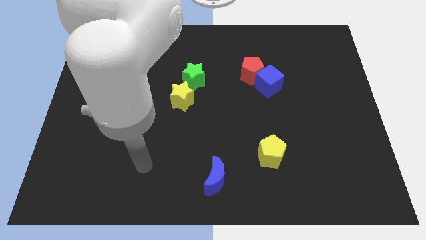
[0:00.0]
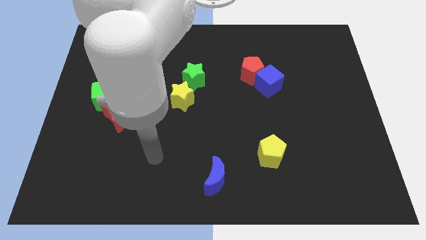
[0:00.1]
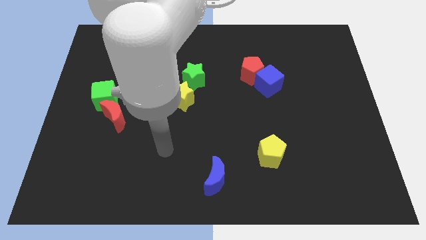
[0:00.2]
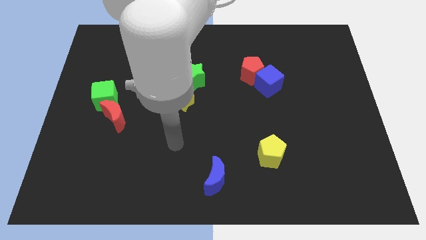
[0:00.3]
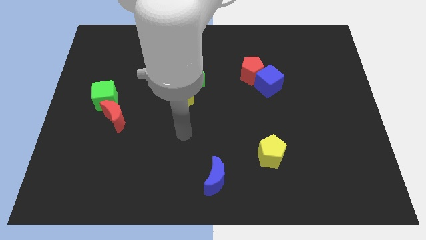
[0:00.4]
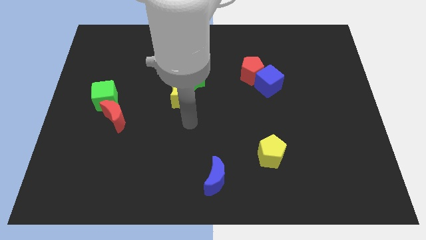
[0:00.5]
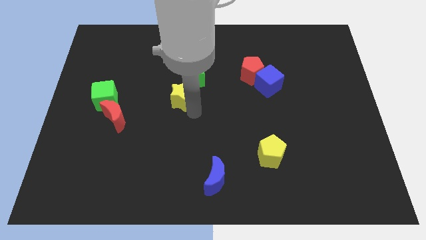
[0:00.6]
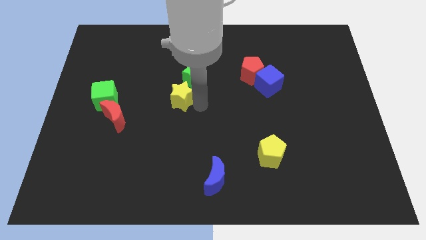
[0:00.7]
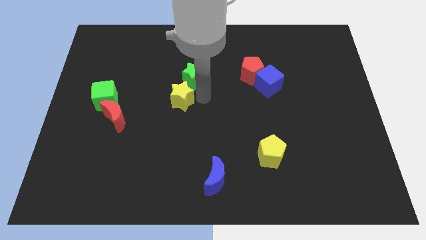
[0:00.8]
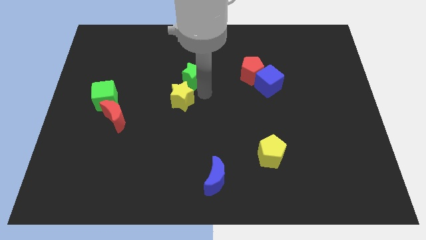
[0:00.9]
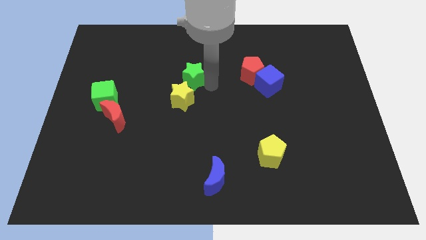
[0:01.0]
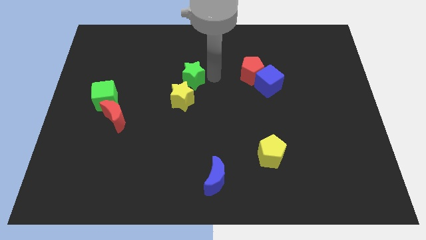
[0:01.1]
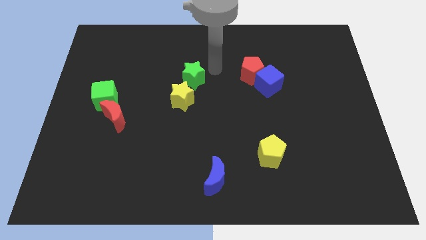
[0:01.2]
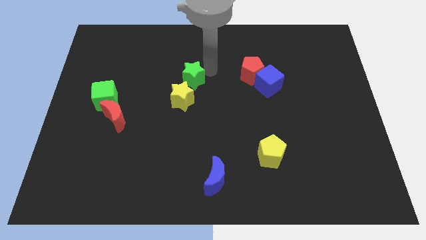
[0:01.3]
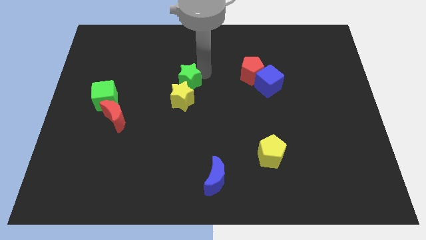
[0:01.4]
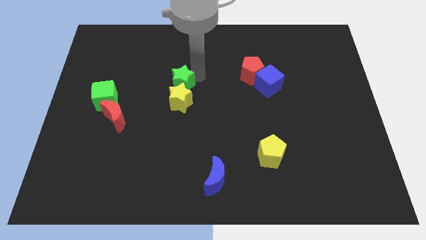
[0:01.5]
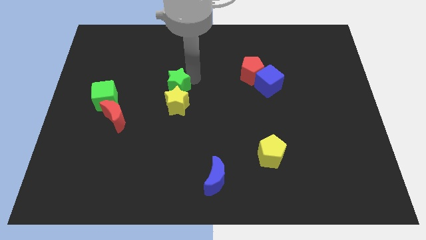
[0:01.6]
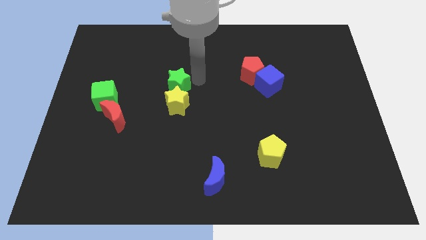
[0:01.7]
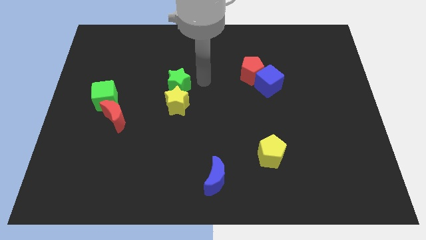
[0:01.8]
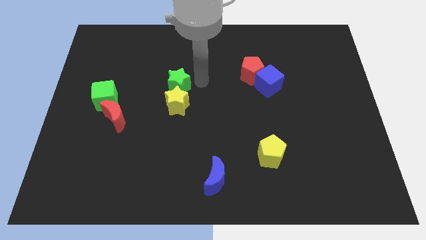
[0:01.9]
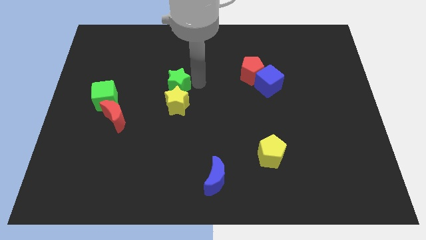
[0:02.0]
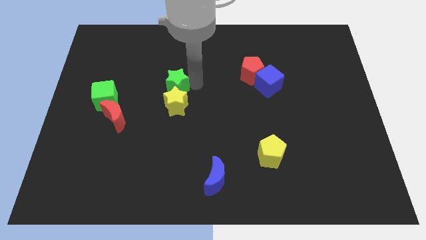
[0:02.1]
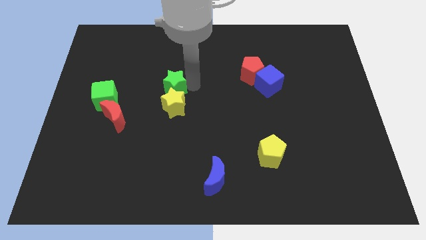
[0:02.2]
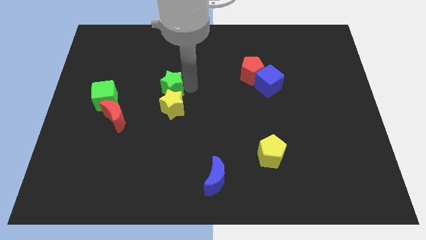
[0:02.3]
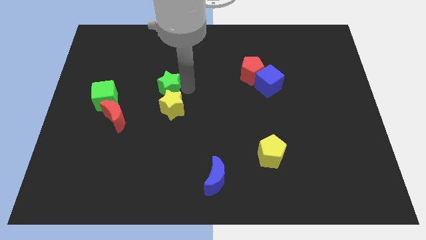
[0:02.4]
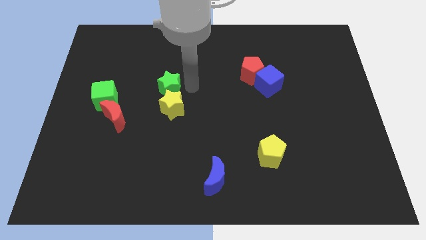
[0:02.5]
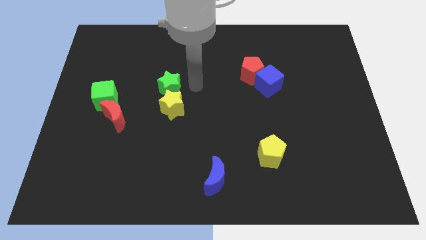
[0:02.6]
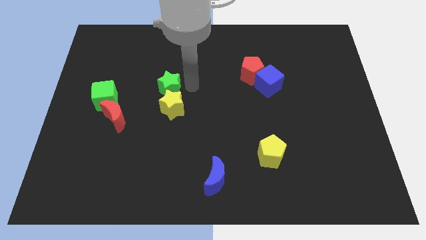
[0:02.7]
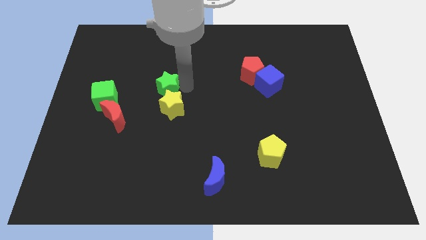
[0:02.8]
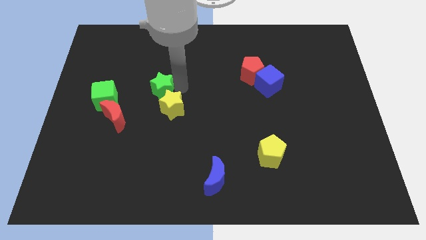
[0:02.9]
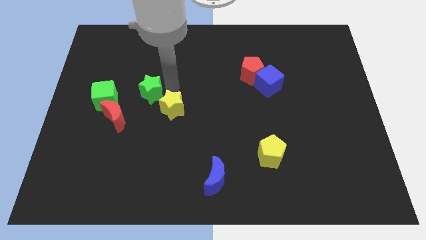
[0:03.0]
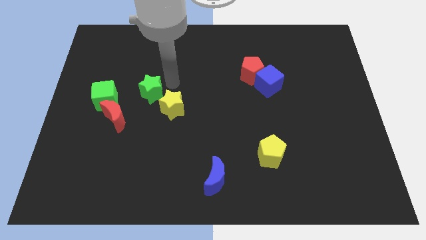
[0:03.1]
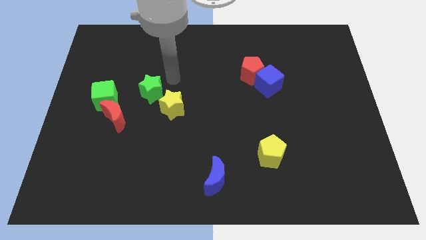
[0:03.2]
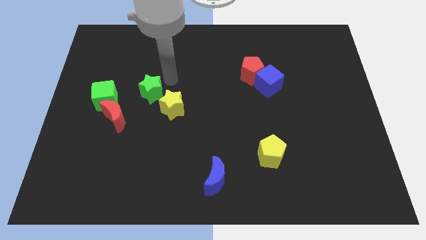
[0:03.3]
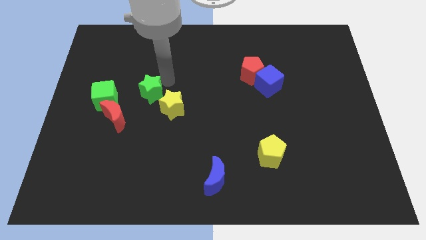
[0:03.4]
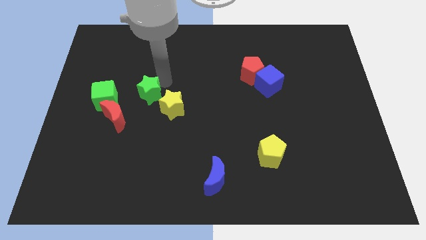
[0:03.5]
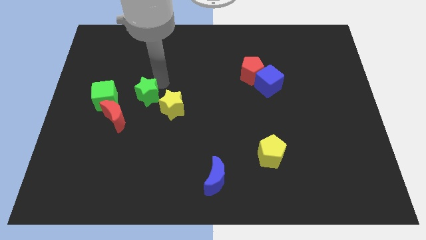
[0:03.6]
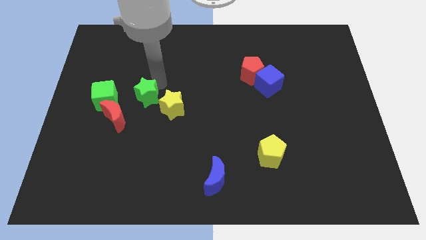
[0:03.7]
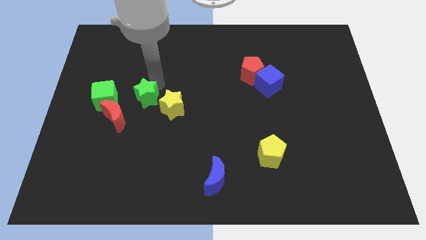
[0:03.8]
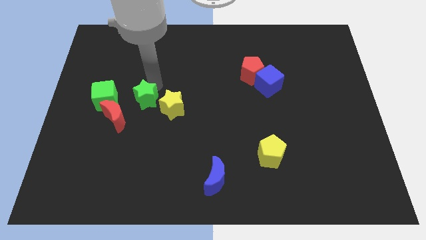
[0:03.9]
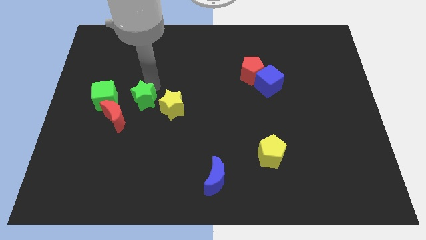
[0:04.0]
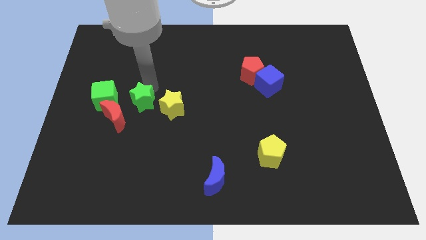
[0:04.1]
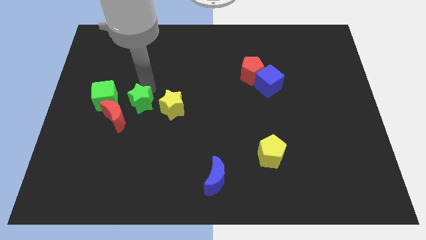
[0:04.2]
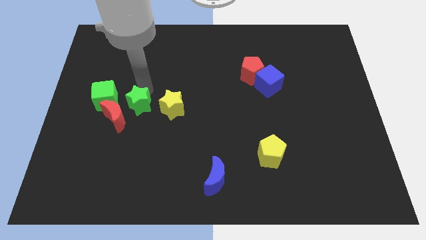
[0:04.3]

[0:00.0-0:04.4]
move the green star next to the red moon

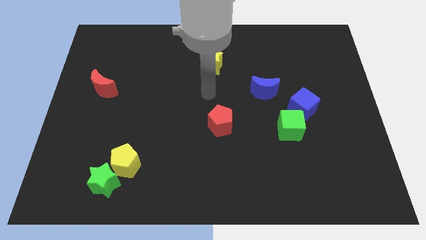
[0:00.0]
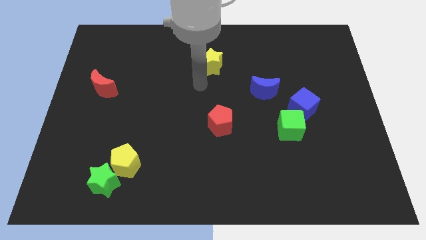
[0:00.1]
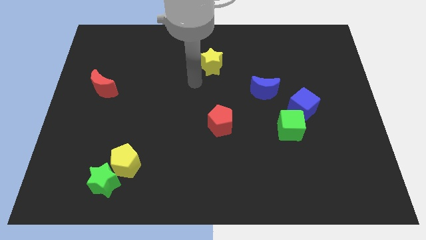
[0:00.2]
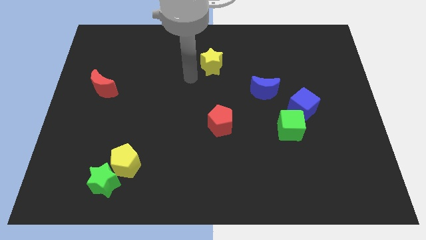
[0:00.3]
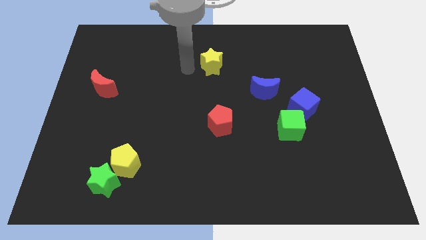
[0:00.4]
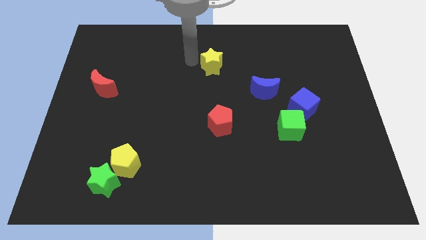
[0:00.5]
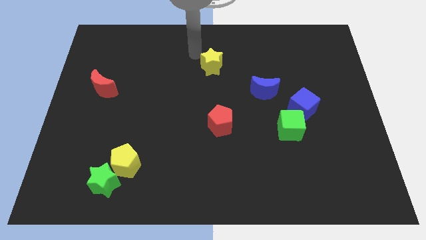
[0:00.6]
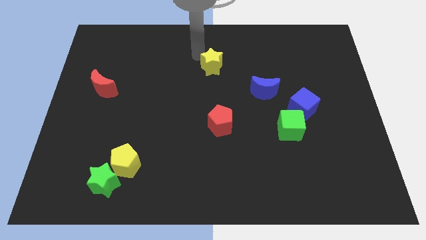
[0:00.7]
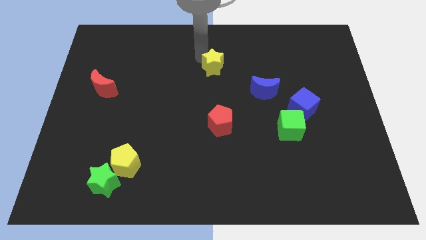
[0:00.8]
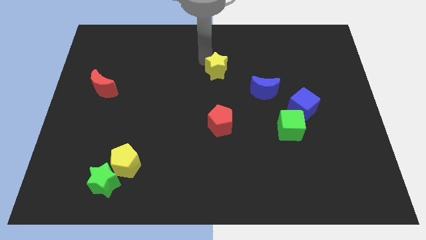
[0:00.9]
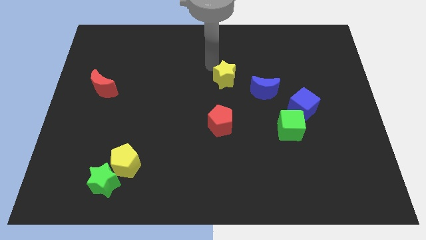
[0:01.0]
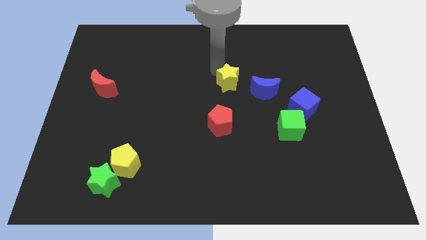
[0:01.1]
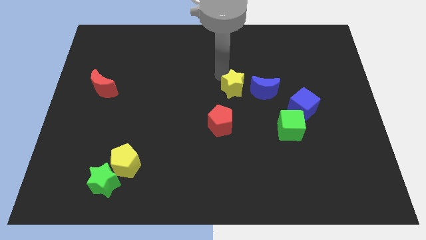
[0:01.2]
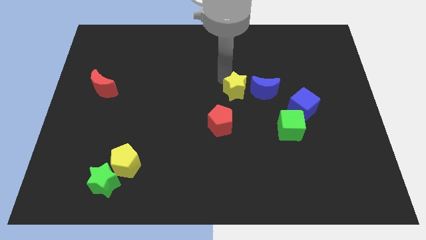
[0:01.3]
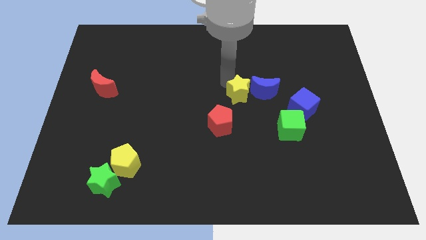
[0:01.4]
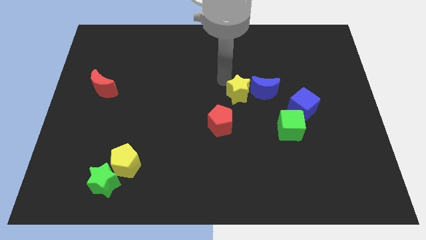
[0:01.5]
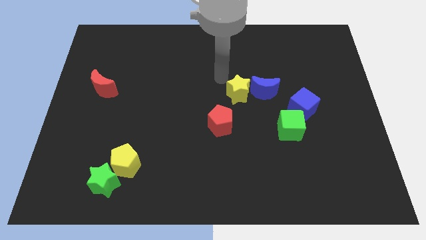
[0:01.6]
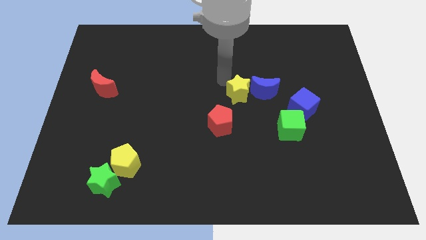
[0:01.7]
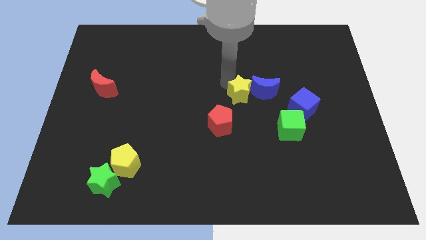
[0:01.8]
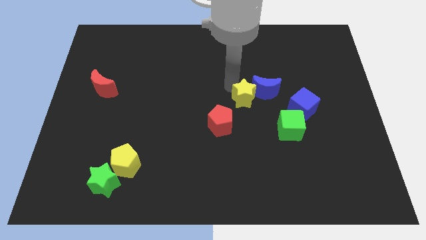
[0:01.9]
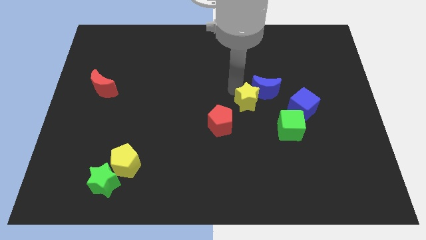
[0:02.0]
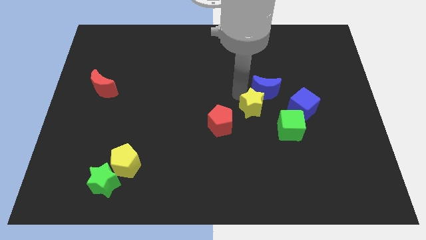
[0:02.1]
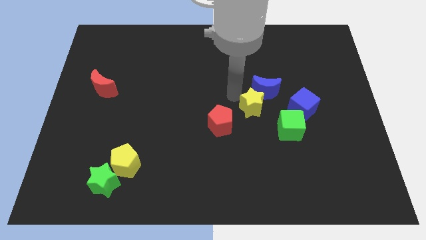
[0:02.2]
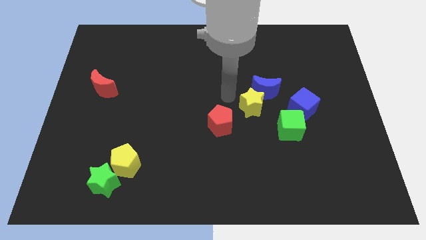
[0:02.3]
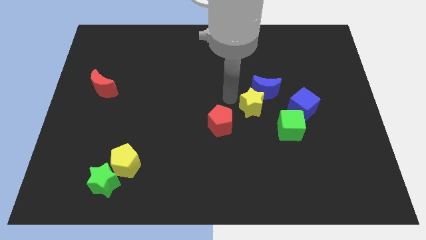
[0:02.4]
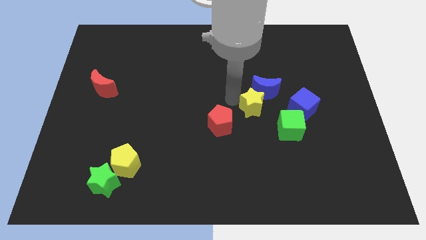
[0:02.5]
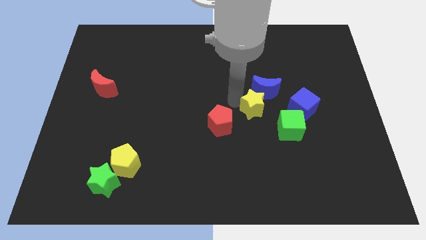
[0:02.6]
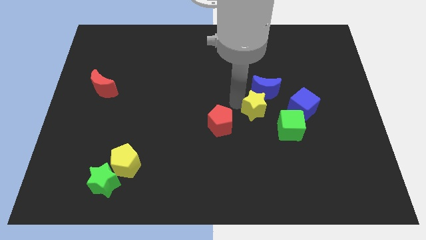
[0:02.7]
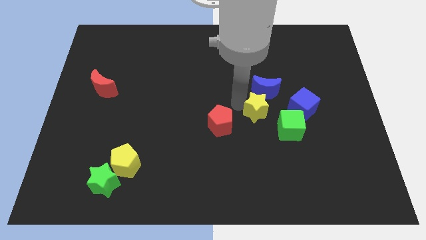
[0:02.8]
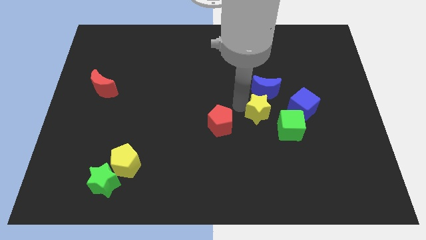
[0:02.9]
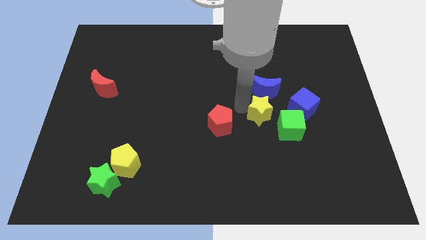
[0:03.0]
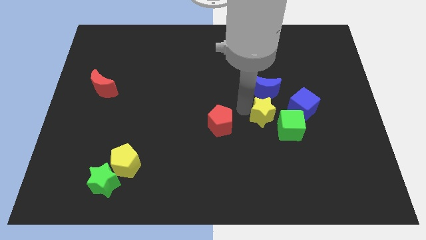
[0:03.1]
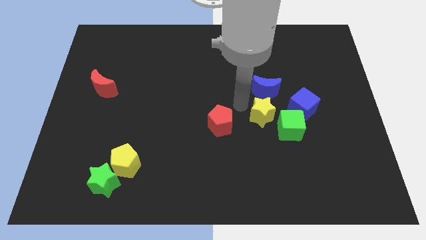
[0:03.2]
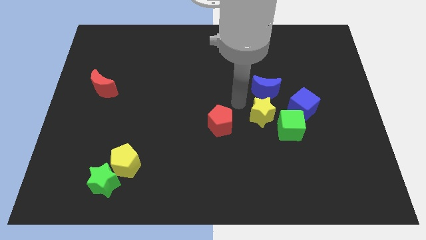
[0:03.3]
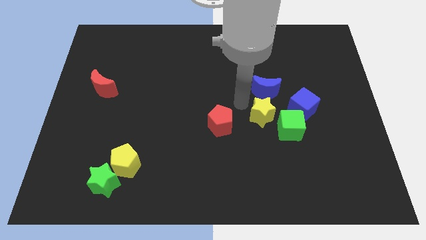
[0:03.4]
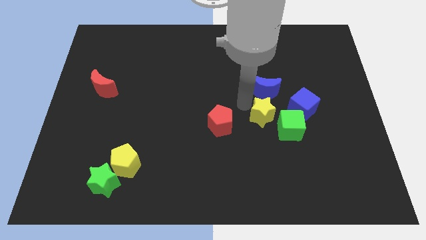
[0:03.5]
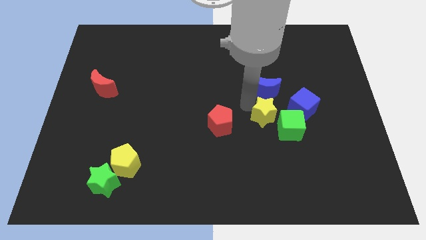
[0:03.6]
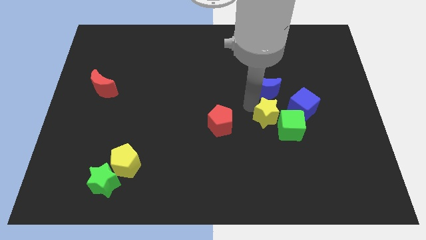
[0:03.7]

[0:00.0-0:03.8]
push the yellow star close to the green cube
